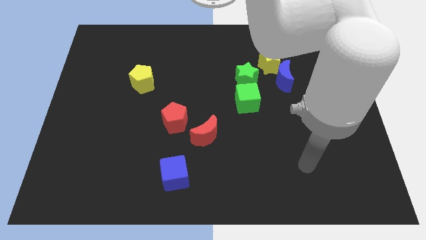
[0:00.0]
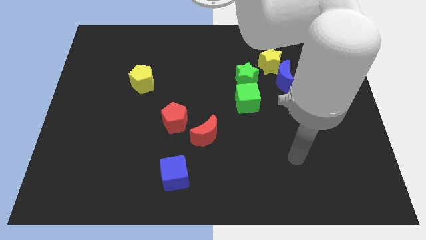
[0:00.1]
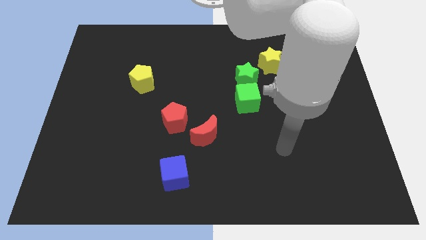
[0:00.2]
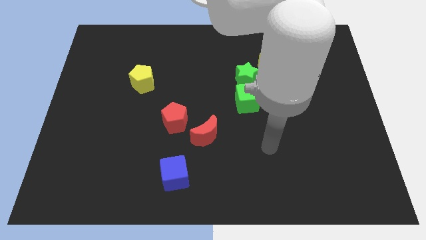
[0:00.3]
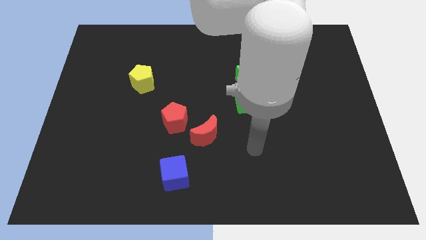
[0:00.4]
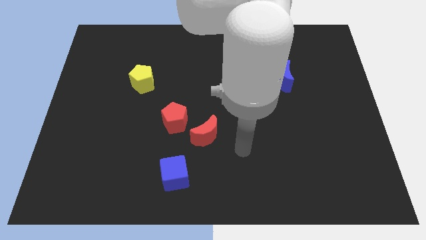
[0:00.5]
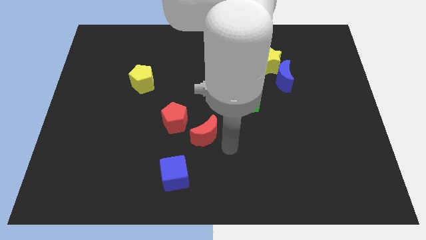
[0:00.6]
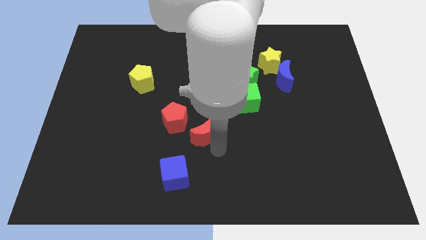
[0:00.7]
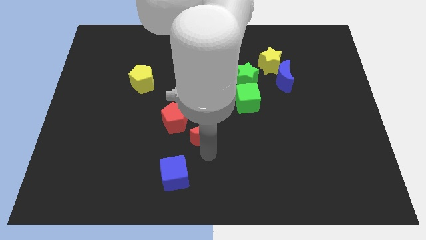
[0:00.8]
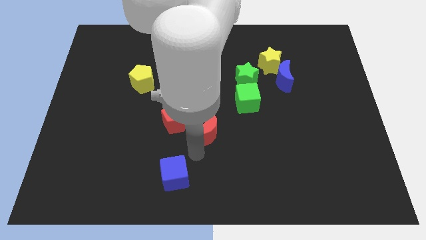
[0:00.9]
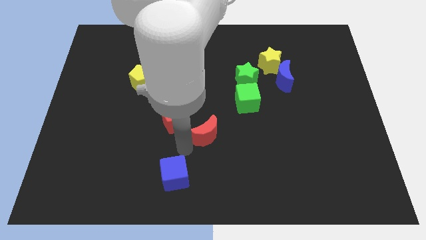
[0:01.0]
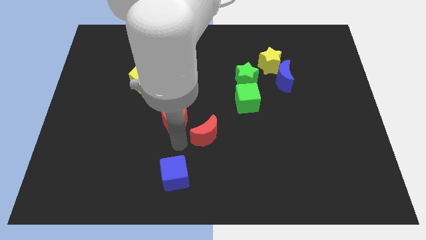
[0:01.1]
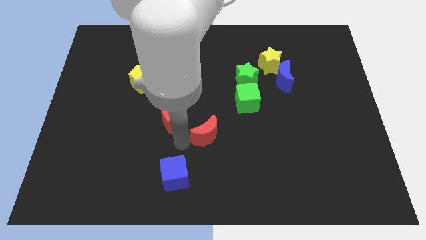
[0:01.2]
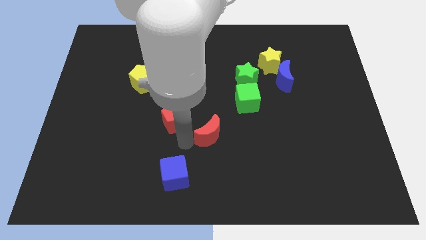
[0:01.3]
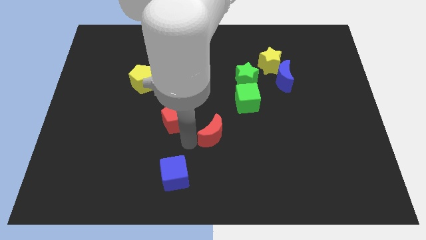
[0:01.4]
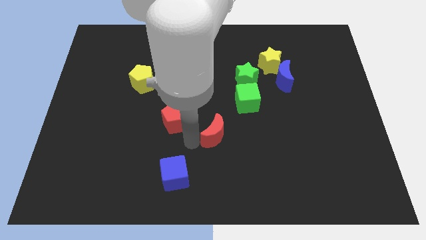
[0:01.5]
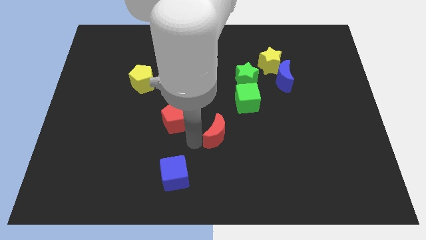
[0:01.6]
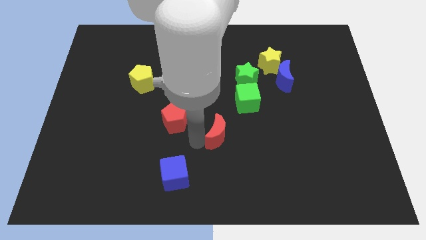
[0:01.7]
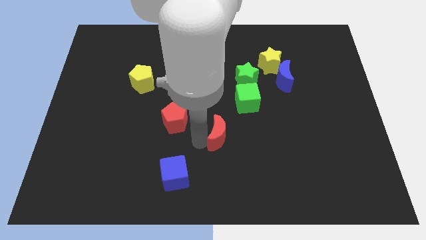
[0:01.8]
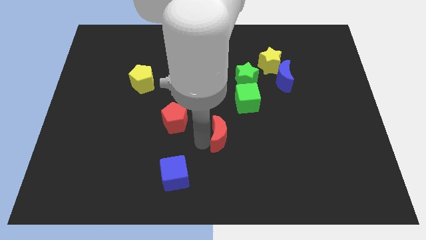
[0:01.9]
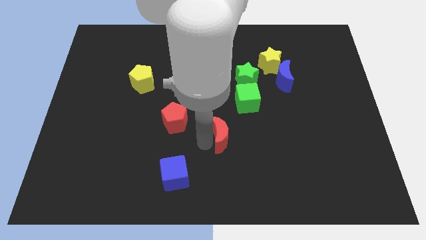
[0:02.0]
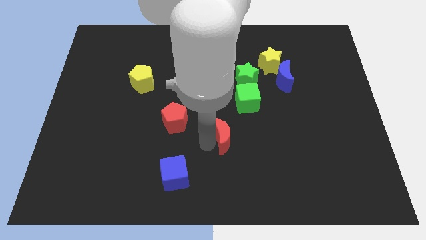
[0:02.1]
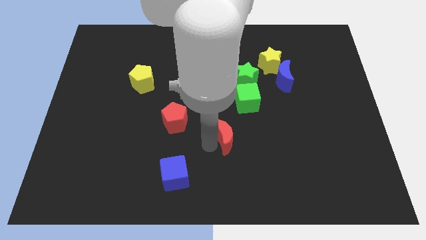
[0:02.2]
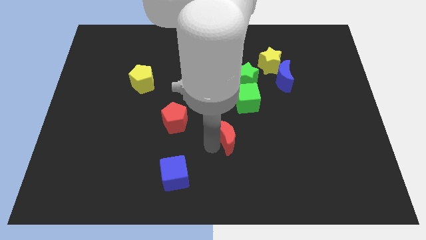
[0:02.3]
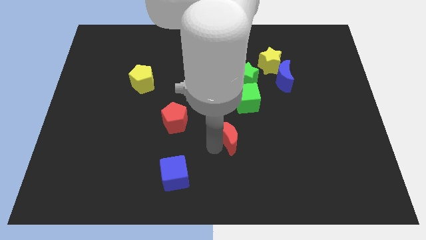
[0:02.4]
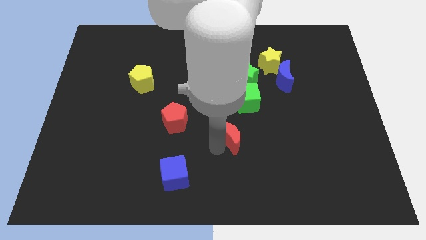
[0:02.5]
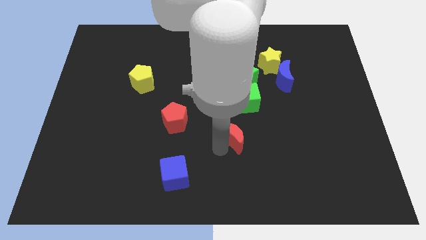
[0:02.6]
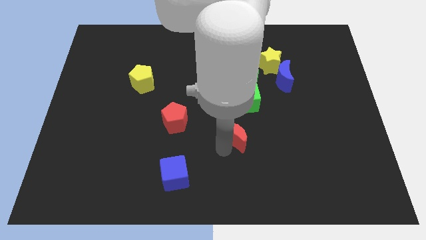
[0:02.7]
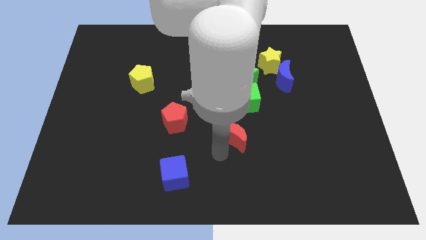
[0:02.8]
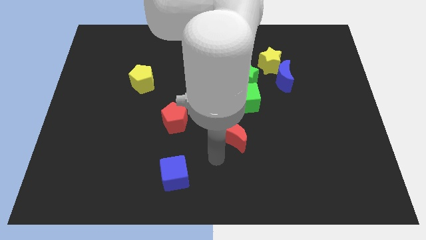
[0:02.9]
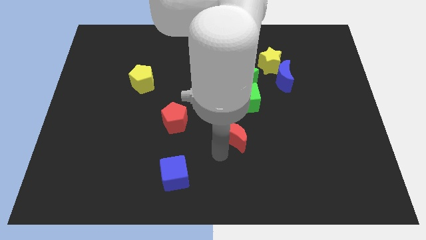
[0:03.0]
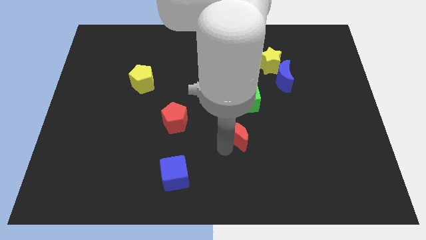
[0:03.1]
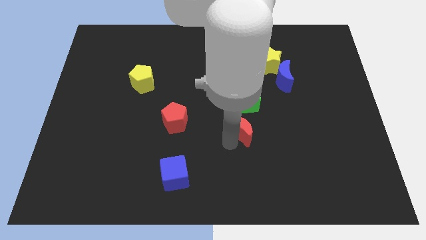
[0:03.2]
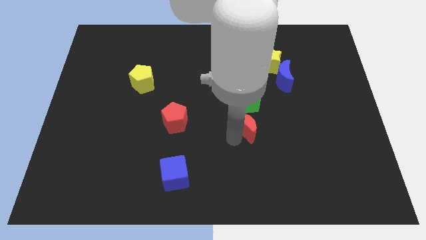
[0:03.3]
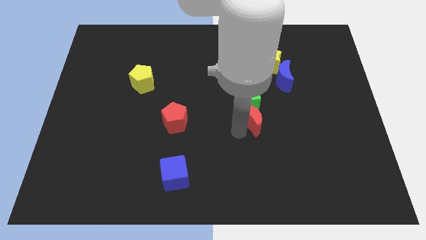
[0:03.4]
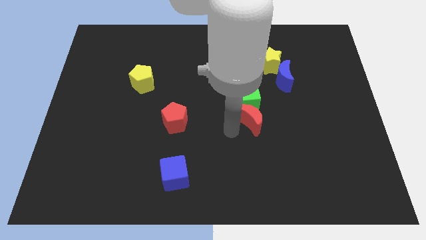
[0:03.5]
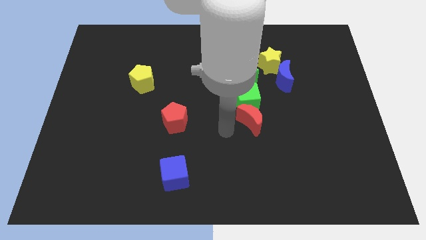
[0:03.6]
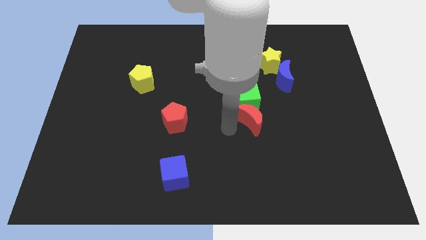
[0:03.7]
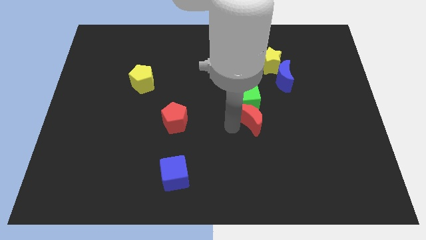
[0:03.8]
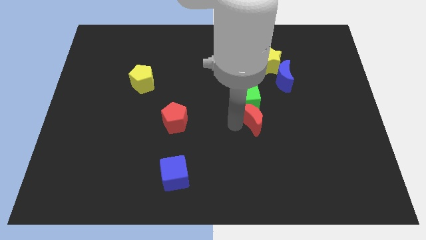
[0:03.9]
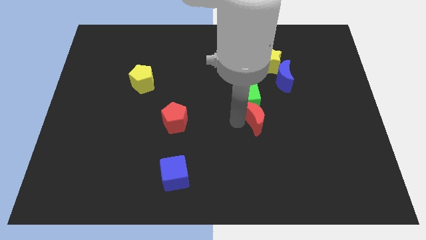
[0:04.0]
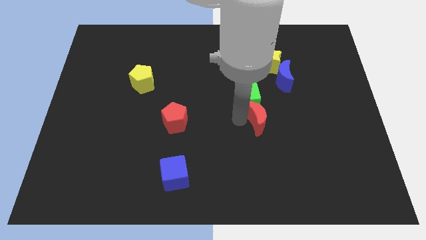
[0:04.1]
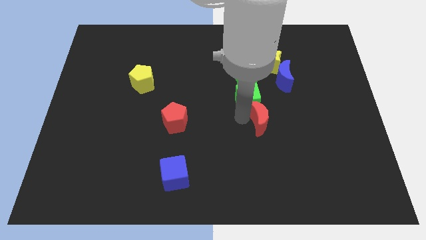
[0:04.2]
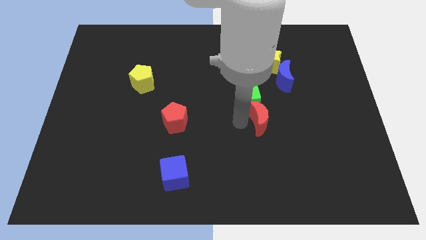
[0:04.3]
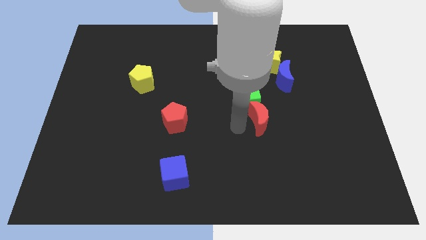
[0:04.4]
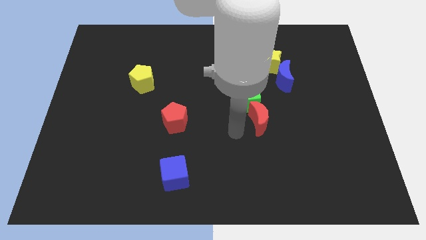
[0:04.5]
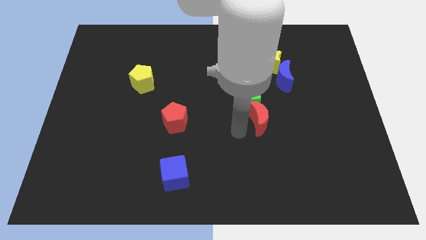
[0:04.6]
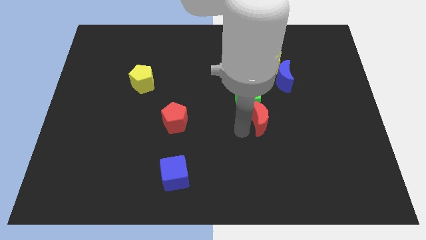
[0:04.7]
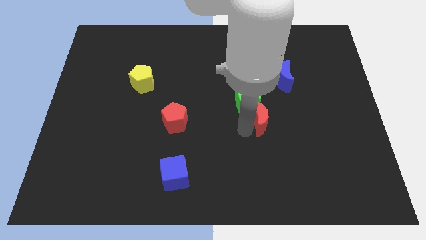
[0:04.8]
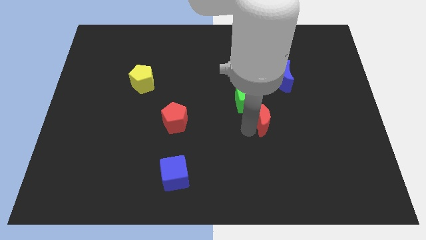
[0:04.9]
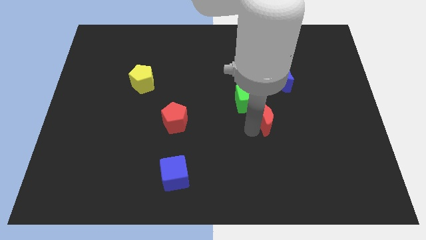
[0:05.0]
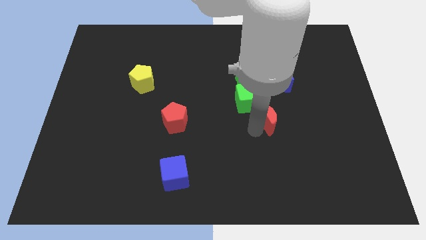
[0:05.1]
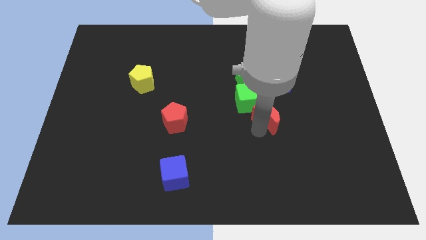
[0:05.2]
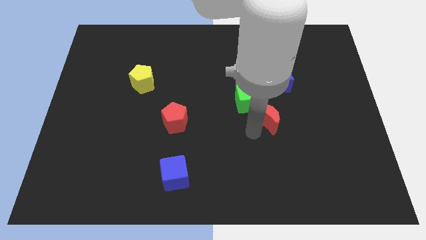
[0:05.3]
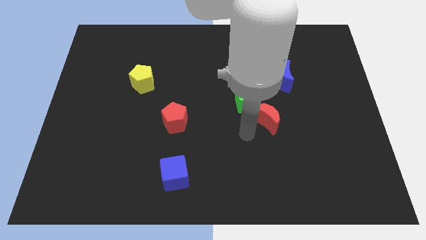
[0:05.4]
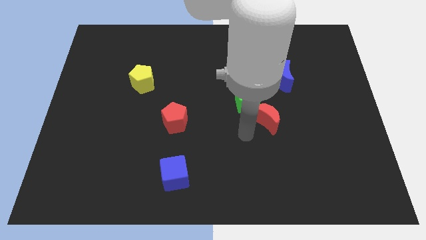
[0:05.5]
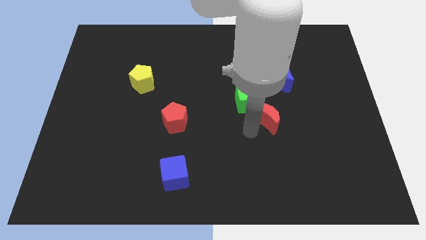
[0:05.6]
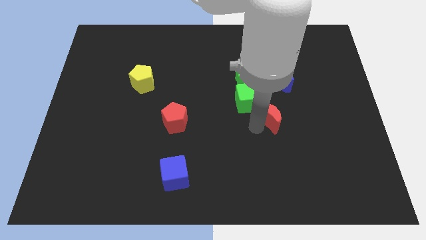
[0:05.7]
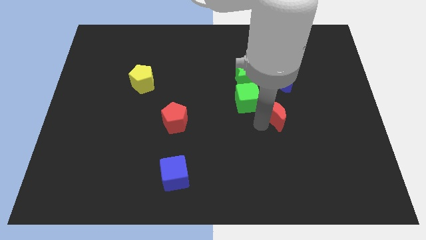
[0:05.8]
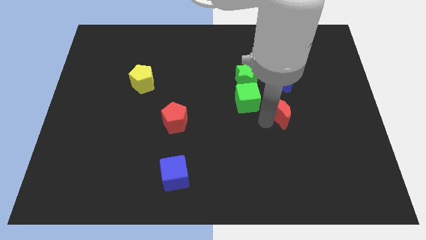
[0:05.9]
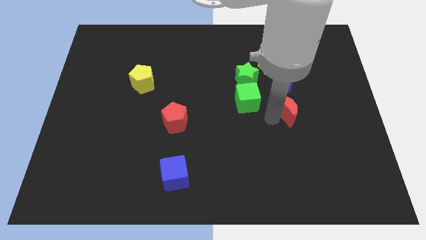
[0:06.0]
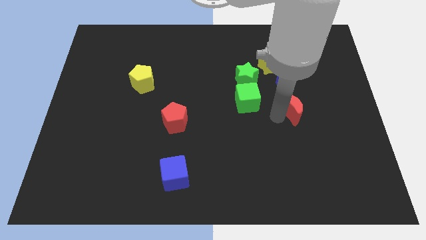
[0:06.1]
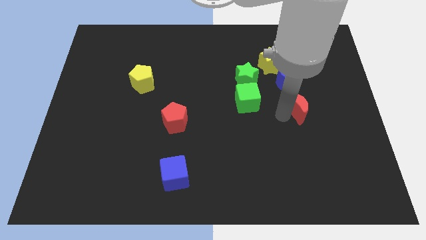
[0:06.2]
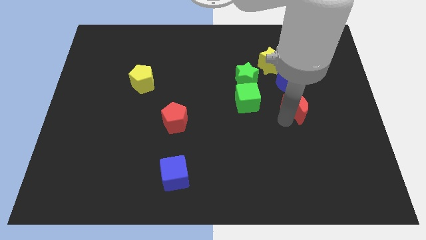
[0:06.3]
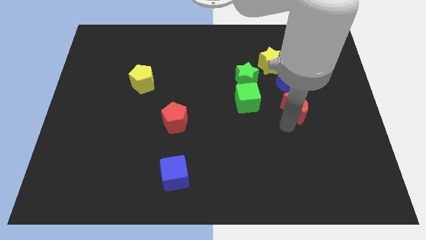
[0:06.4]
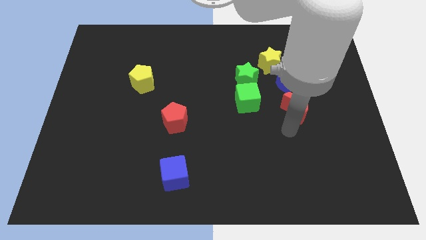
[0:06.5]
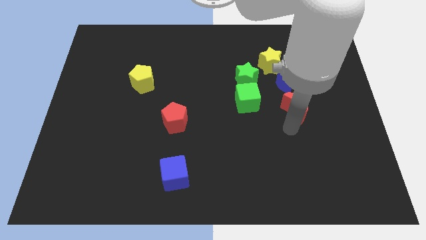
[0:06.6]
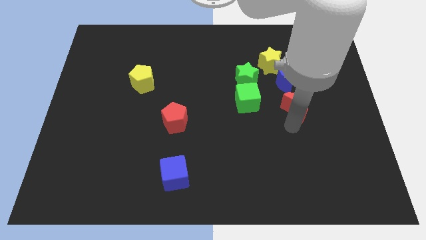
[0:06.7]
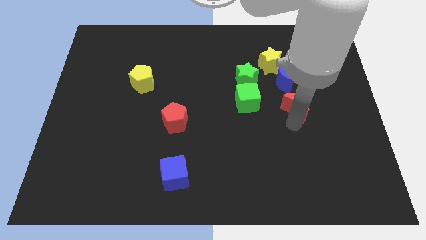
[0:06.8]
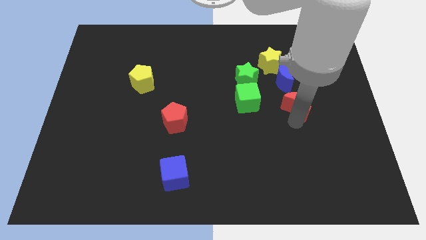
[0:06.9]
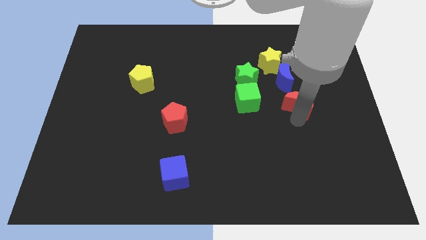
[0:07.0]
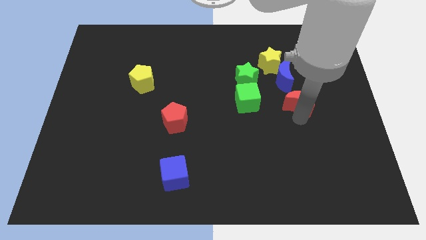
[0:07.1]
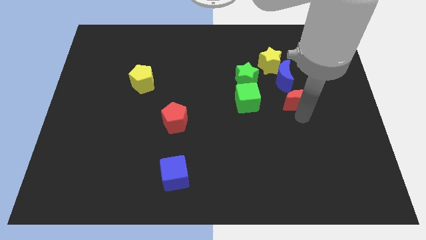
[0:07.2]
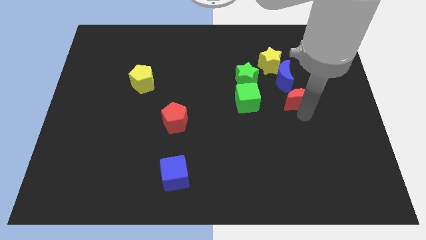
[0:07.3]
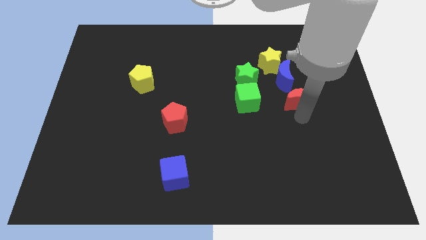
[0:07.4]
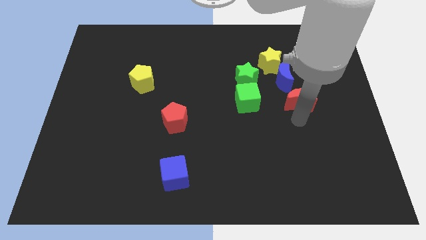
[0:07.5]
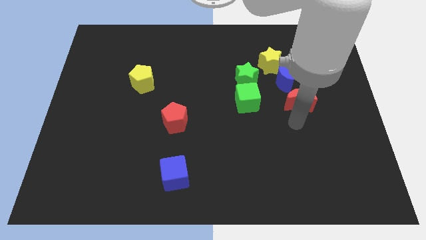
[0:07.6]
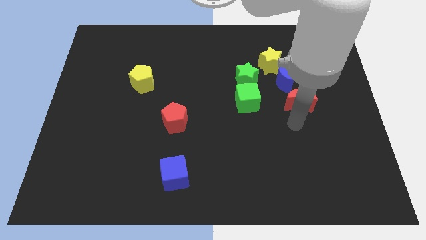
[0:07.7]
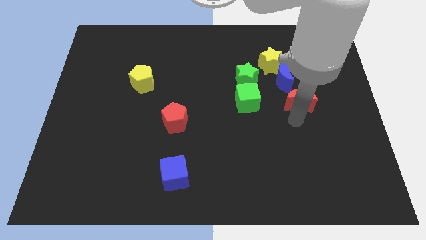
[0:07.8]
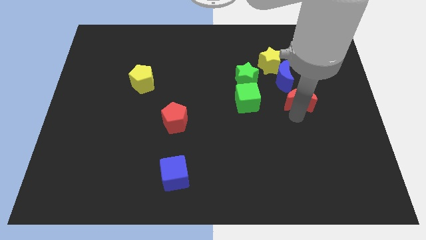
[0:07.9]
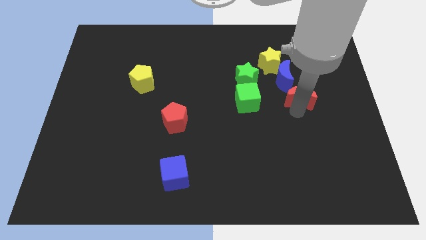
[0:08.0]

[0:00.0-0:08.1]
move the red moon upwards and to the right diagonally
